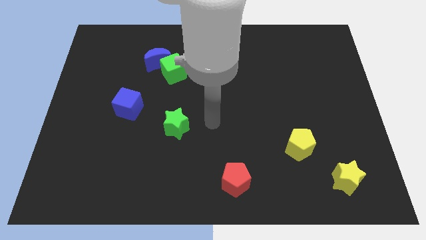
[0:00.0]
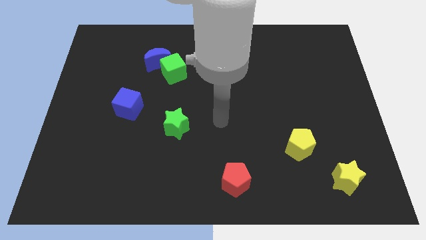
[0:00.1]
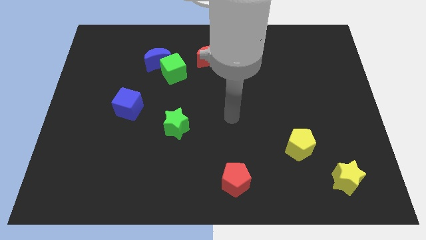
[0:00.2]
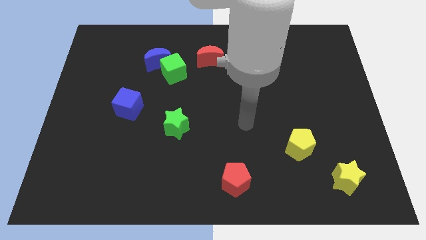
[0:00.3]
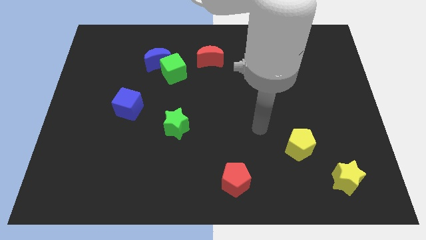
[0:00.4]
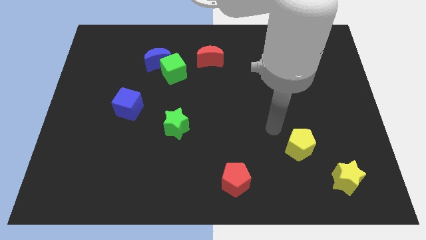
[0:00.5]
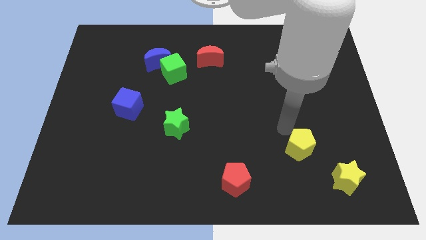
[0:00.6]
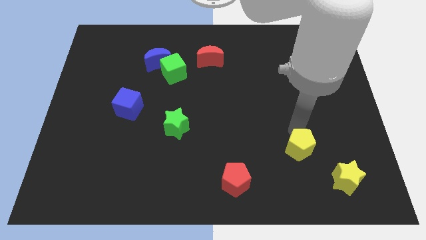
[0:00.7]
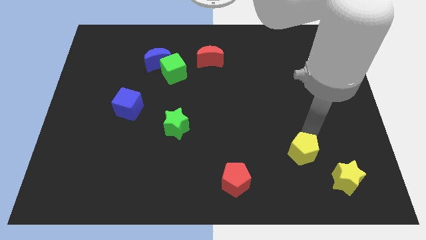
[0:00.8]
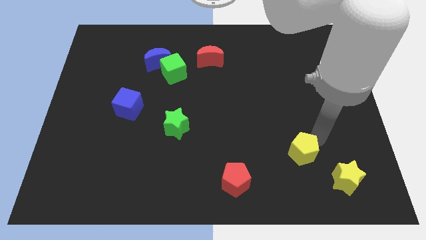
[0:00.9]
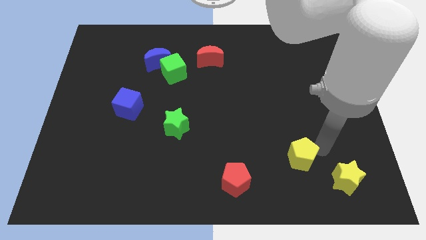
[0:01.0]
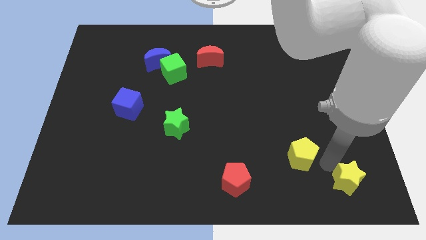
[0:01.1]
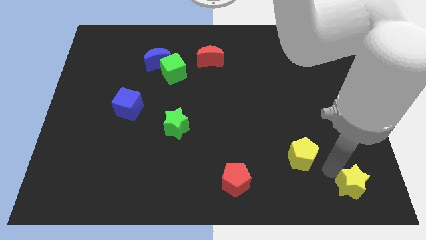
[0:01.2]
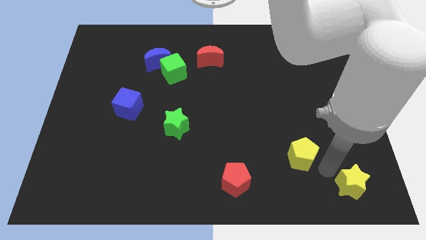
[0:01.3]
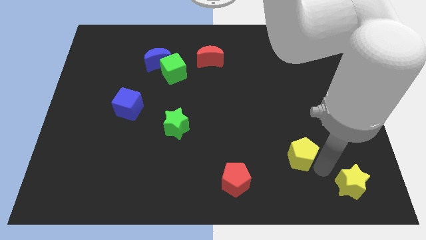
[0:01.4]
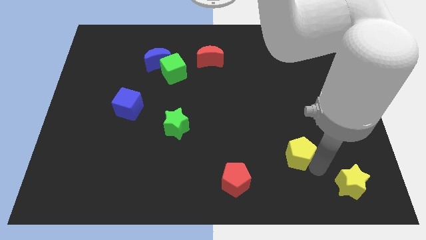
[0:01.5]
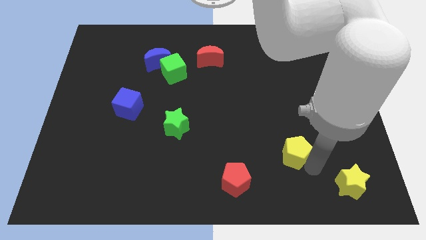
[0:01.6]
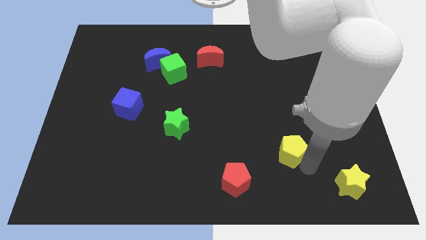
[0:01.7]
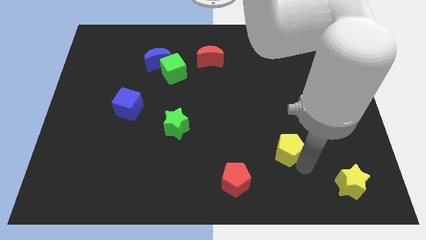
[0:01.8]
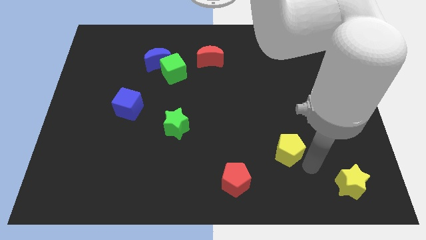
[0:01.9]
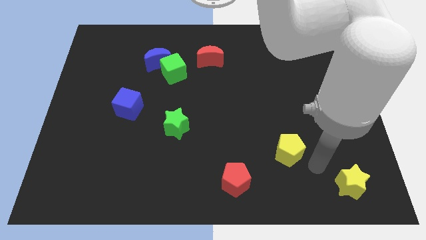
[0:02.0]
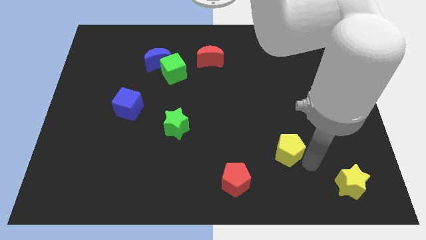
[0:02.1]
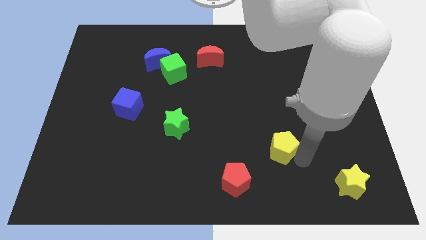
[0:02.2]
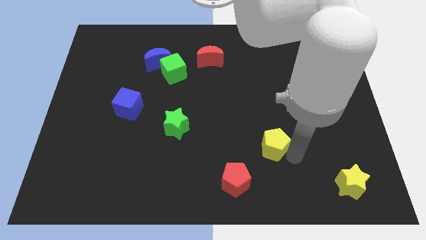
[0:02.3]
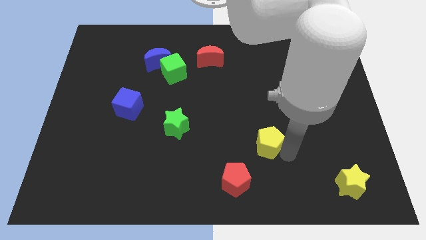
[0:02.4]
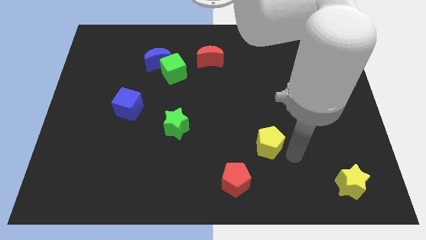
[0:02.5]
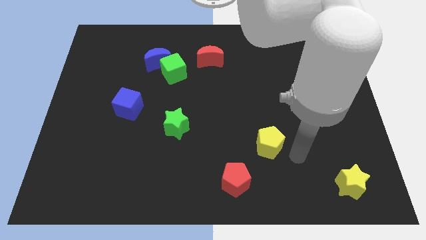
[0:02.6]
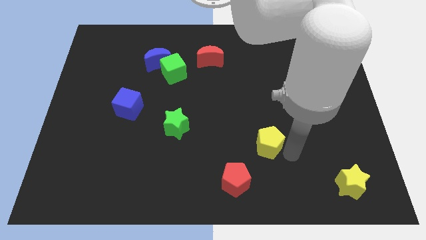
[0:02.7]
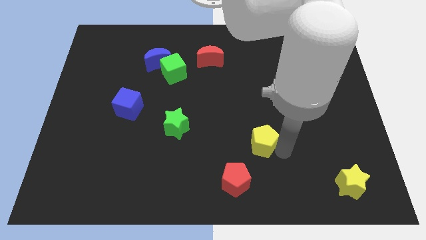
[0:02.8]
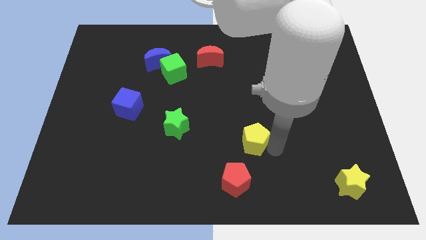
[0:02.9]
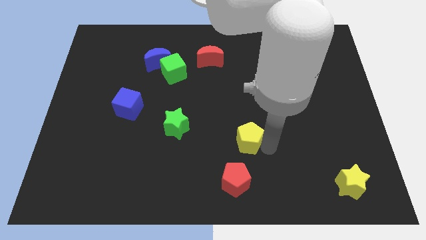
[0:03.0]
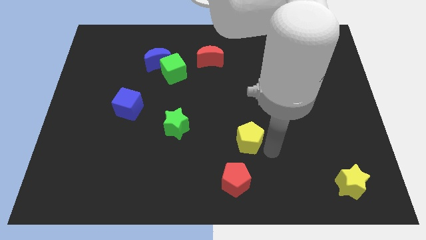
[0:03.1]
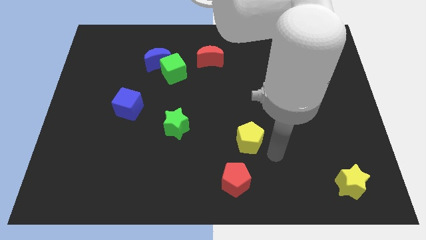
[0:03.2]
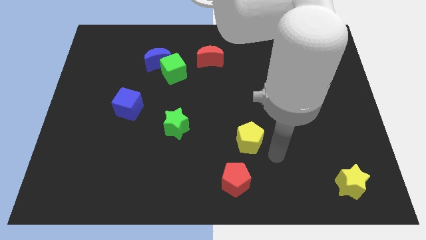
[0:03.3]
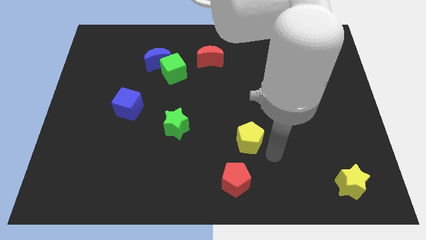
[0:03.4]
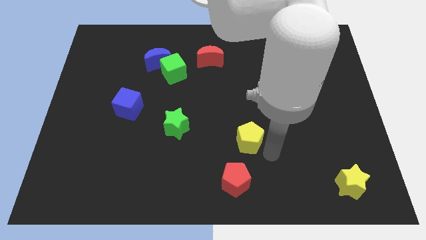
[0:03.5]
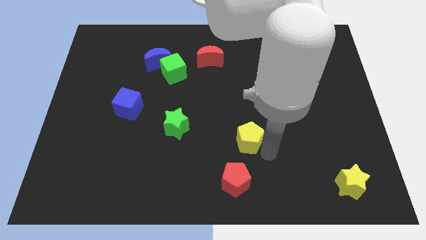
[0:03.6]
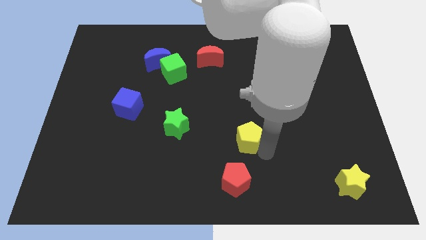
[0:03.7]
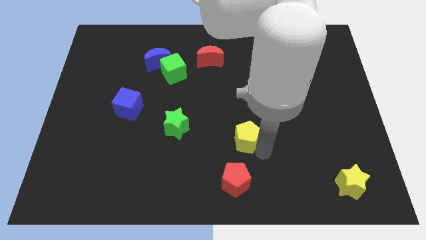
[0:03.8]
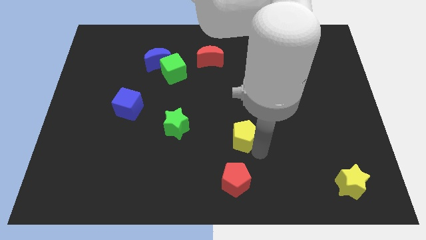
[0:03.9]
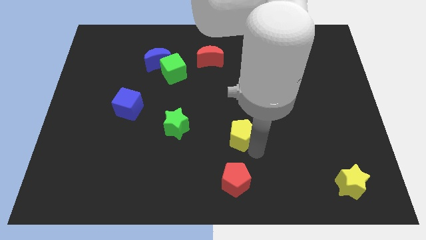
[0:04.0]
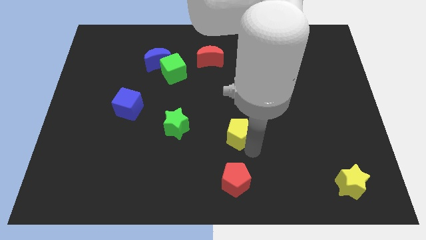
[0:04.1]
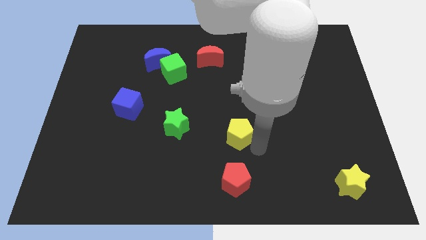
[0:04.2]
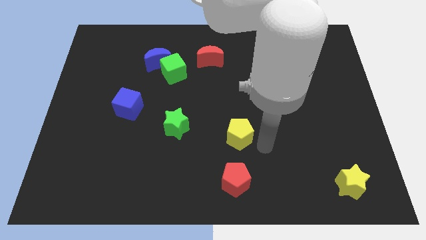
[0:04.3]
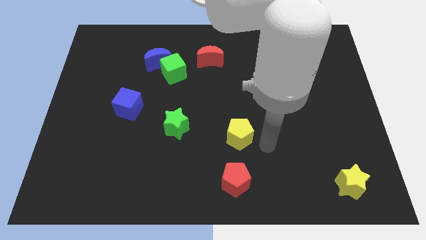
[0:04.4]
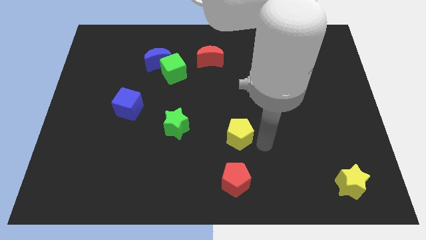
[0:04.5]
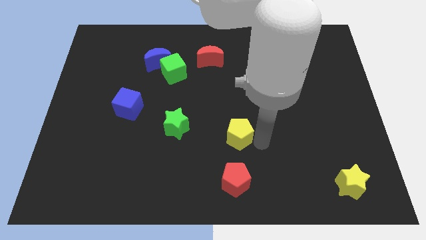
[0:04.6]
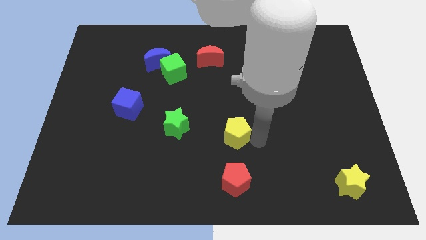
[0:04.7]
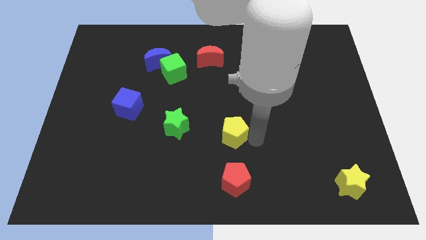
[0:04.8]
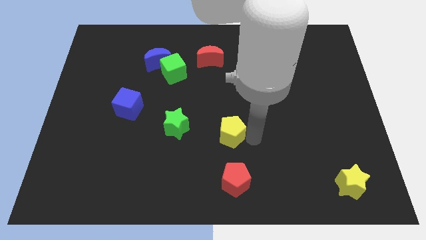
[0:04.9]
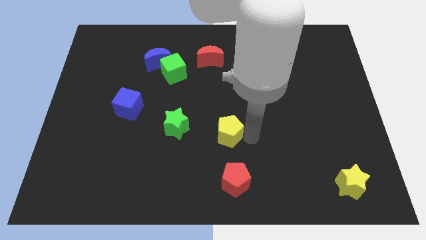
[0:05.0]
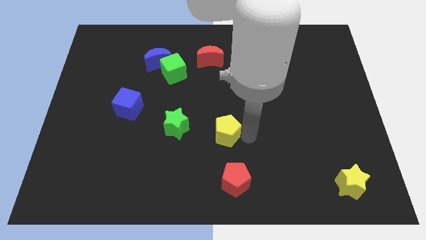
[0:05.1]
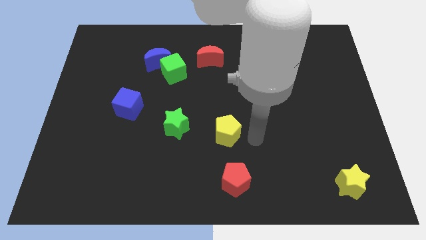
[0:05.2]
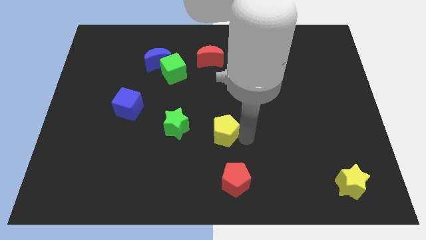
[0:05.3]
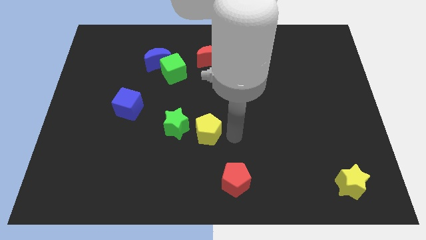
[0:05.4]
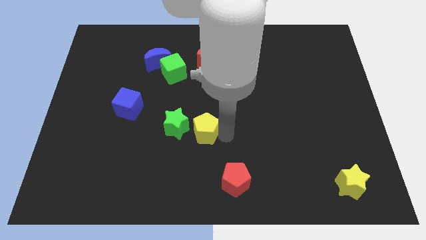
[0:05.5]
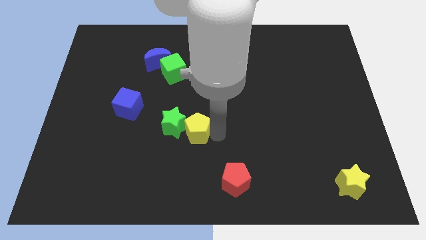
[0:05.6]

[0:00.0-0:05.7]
put the yellow pentagon next to the green star

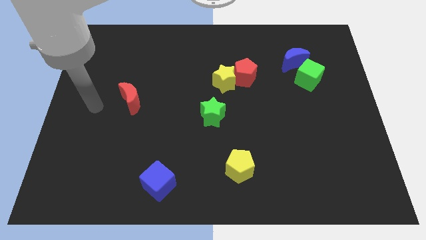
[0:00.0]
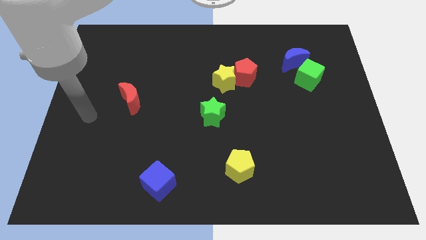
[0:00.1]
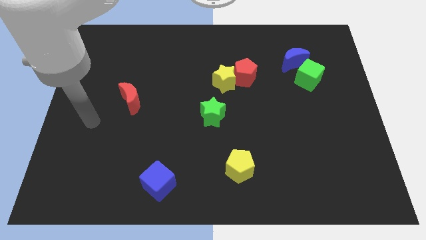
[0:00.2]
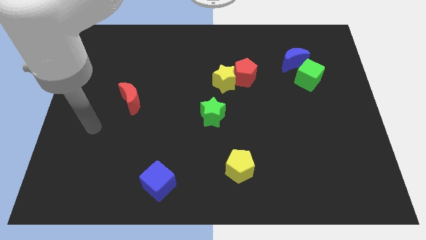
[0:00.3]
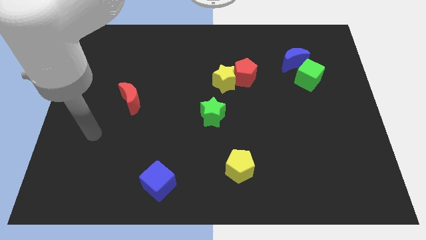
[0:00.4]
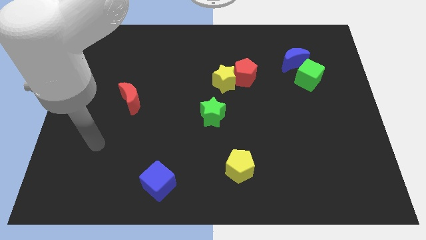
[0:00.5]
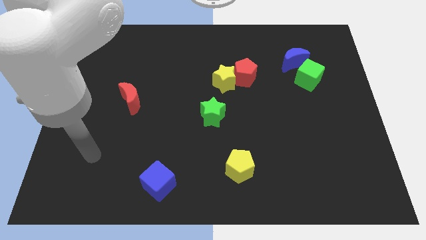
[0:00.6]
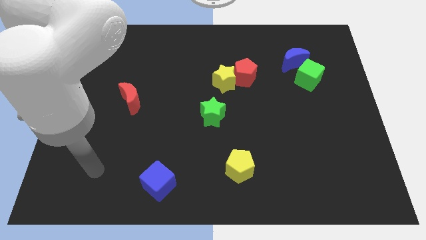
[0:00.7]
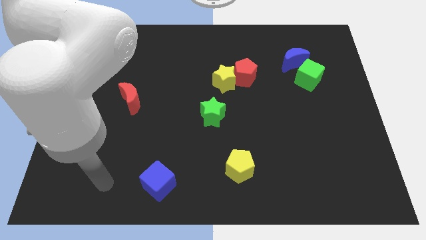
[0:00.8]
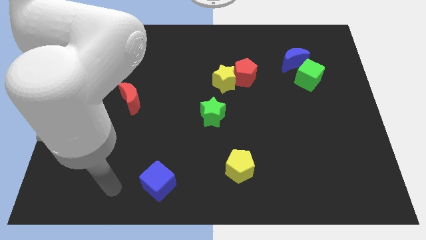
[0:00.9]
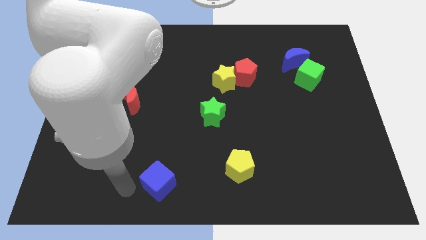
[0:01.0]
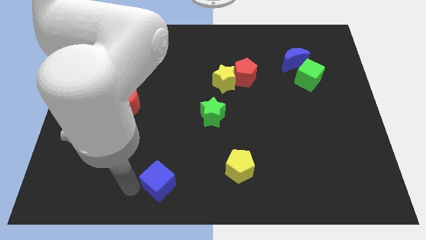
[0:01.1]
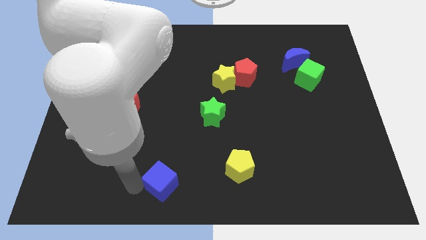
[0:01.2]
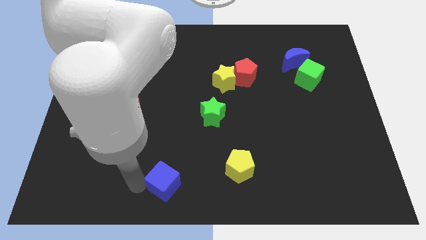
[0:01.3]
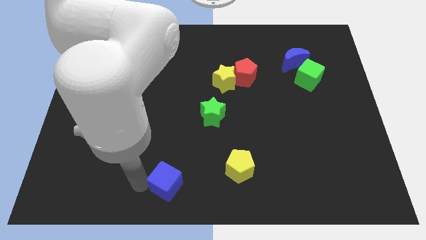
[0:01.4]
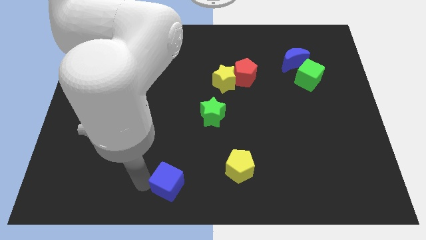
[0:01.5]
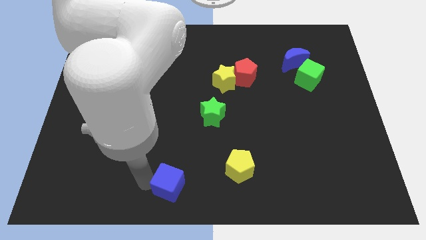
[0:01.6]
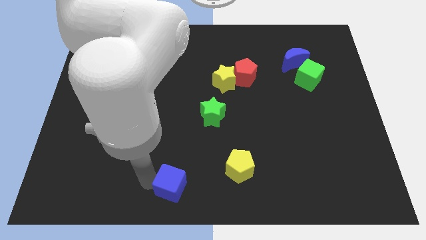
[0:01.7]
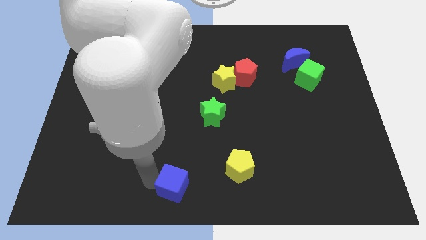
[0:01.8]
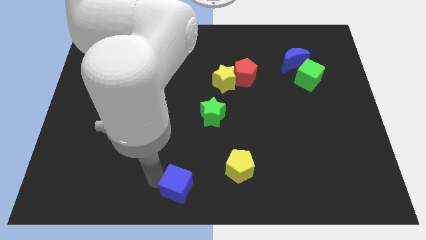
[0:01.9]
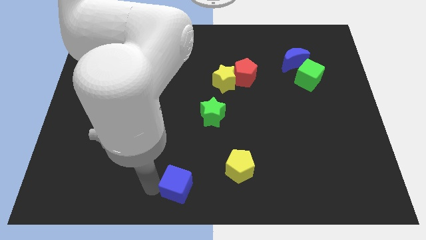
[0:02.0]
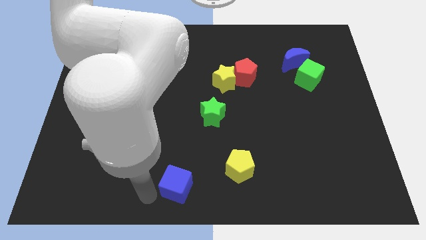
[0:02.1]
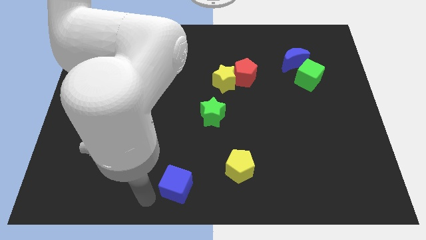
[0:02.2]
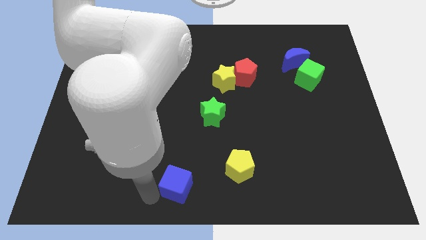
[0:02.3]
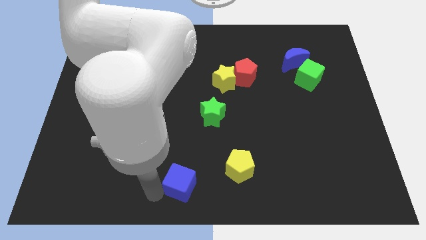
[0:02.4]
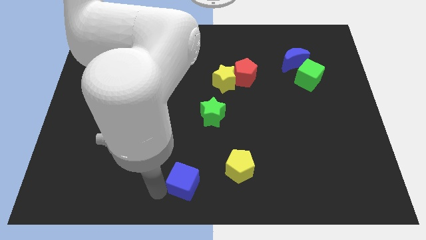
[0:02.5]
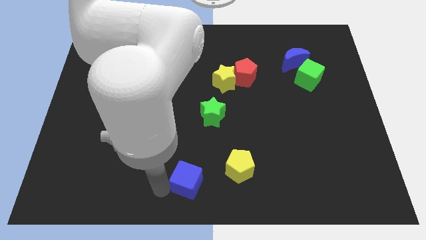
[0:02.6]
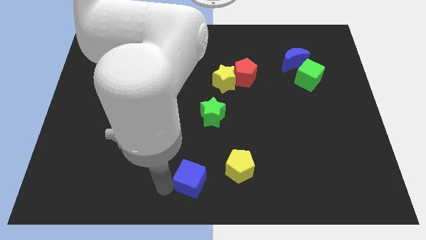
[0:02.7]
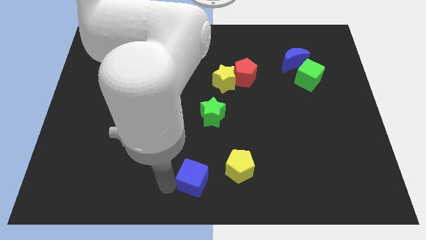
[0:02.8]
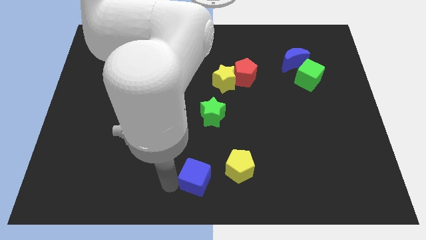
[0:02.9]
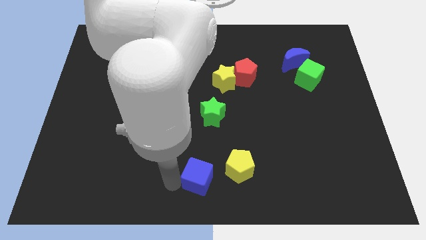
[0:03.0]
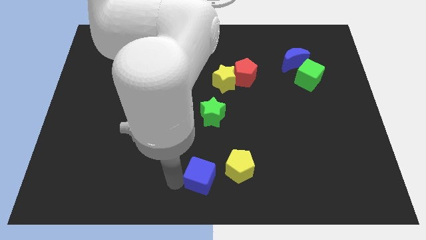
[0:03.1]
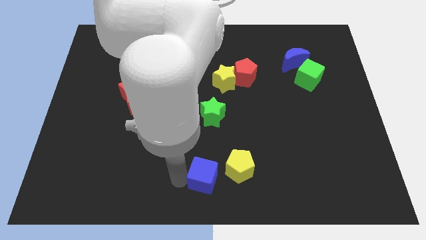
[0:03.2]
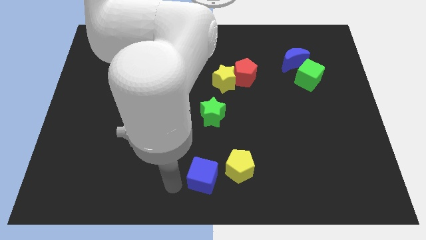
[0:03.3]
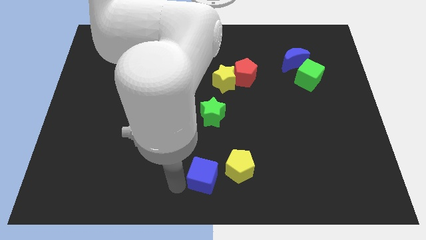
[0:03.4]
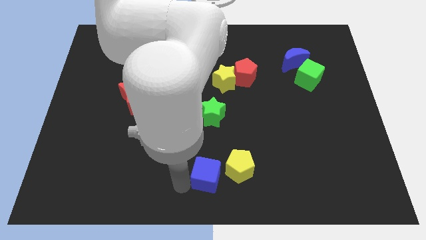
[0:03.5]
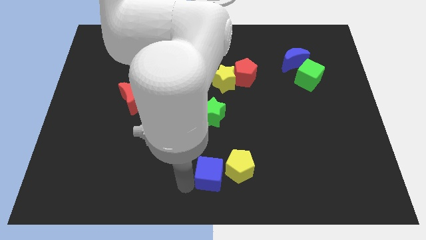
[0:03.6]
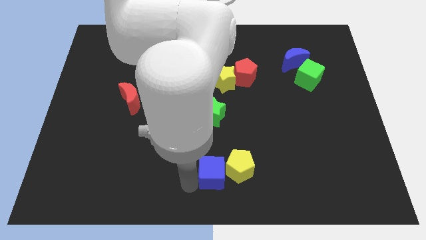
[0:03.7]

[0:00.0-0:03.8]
push the blue cube next to the yellow pentagon
